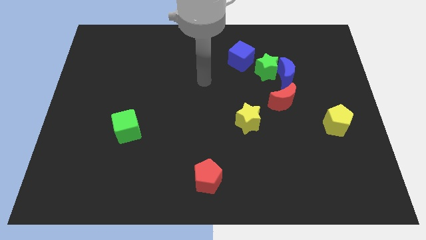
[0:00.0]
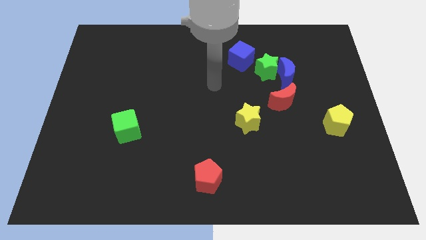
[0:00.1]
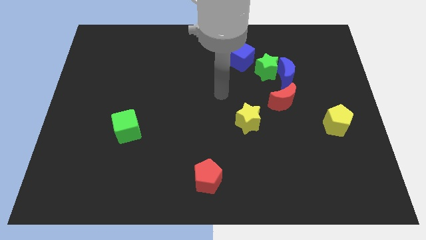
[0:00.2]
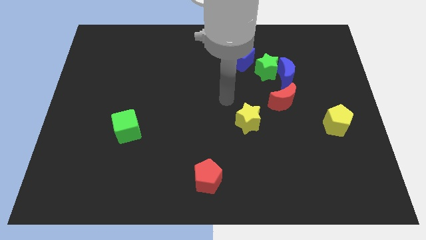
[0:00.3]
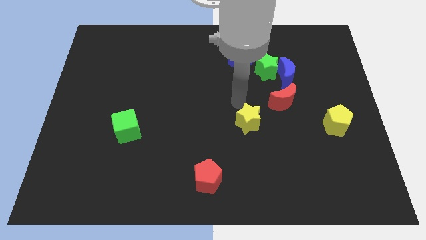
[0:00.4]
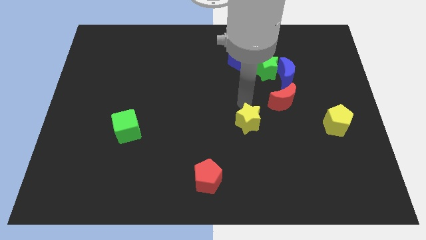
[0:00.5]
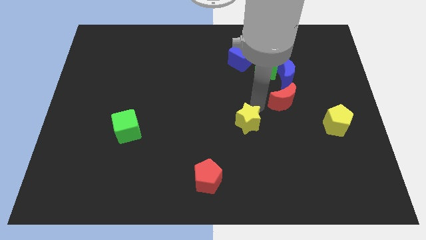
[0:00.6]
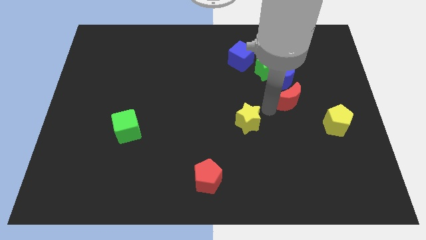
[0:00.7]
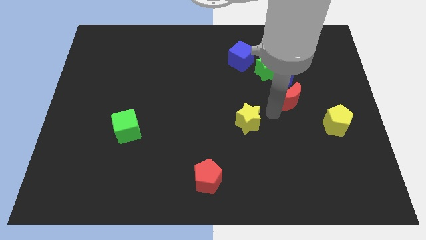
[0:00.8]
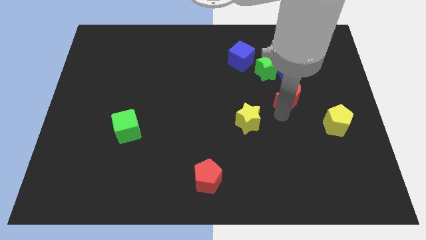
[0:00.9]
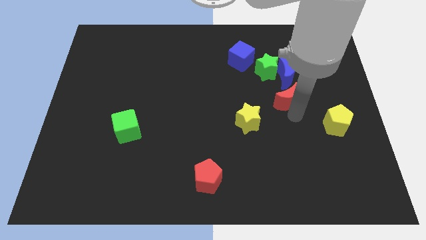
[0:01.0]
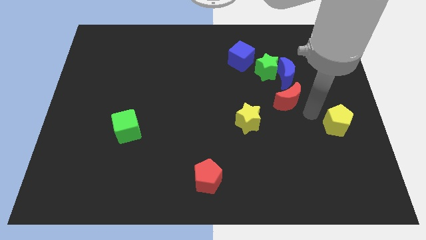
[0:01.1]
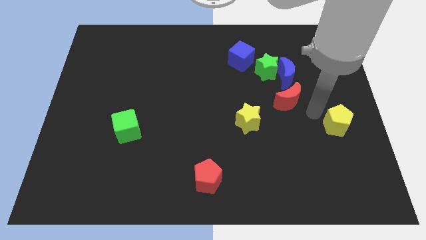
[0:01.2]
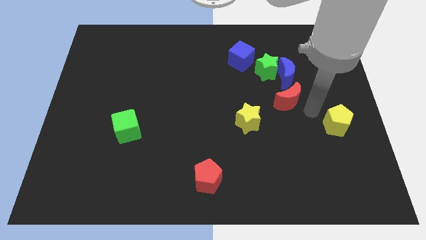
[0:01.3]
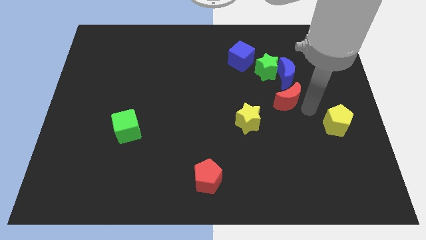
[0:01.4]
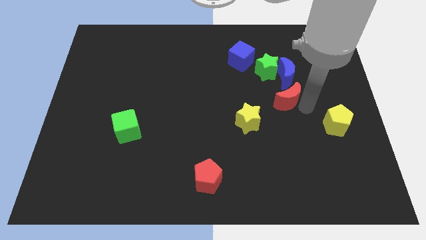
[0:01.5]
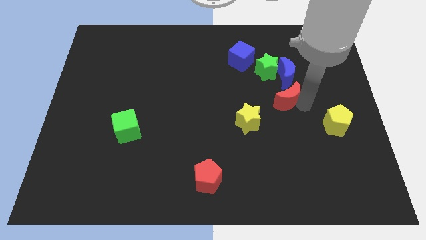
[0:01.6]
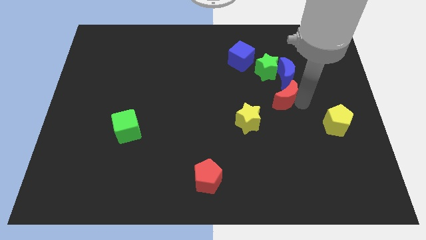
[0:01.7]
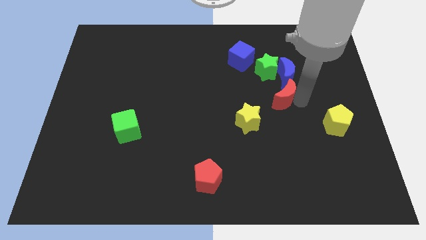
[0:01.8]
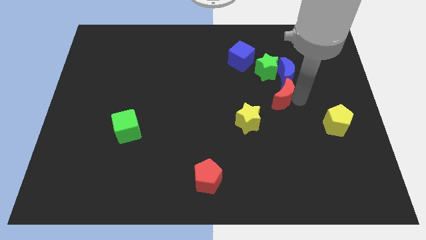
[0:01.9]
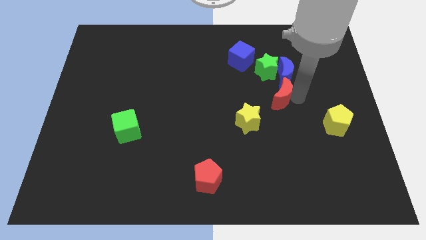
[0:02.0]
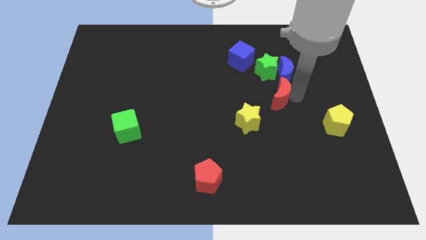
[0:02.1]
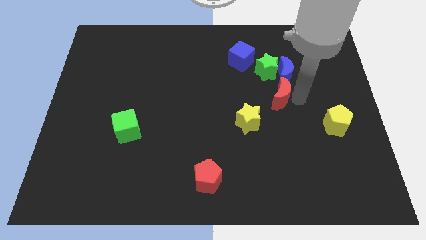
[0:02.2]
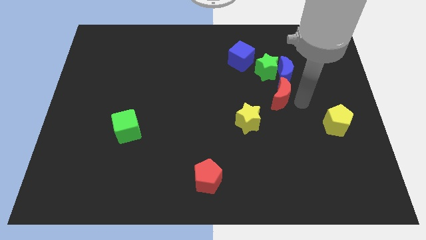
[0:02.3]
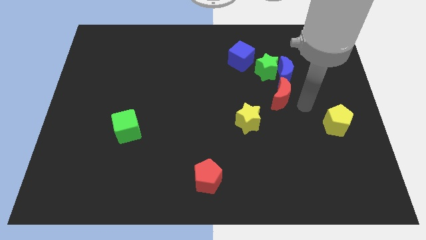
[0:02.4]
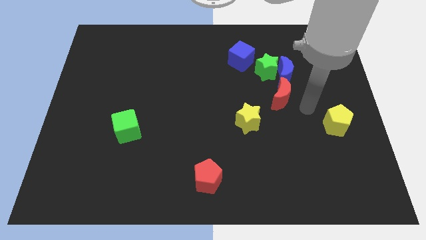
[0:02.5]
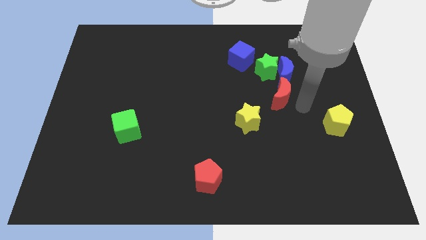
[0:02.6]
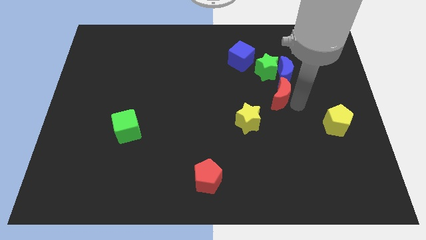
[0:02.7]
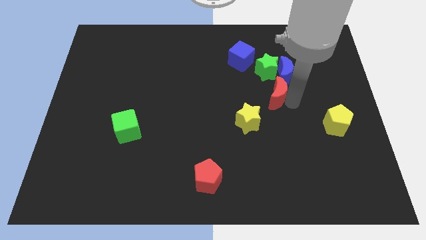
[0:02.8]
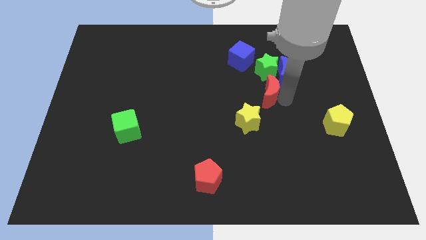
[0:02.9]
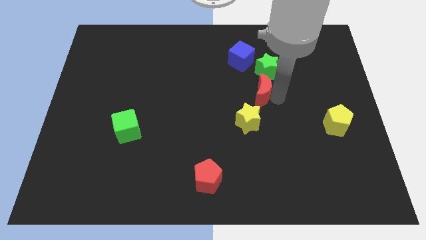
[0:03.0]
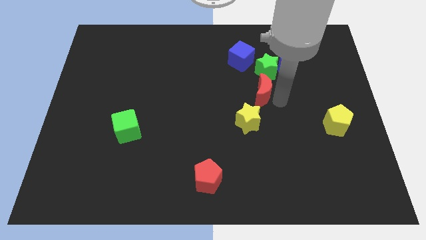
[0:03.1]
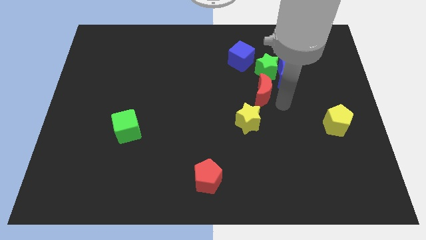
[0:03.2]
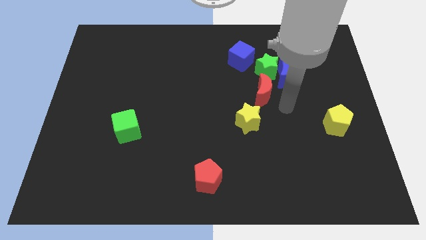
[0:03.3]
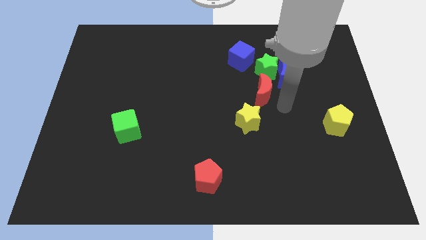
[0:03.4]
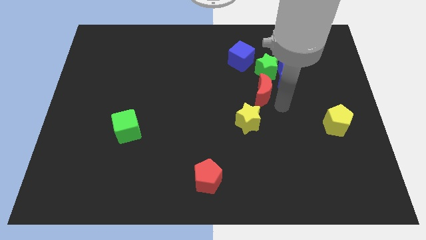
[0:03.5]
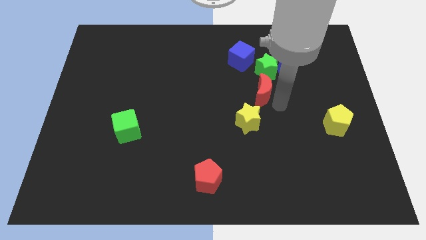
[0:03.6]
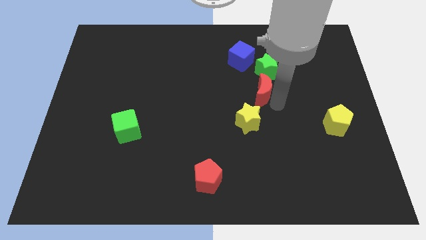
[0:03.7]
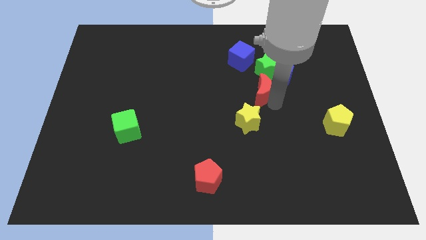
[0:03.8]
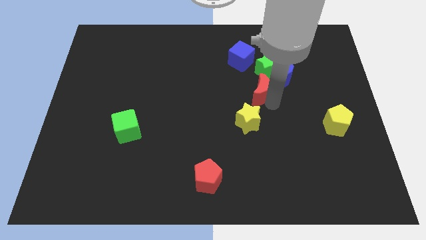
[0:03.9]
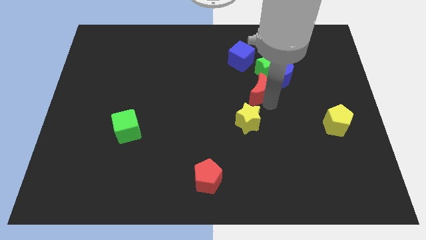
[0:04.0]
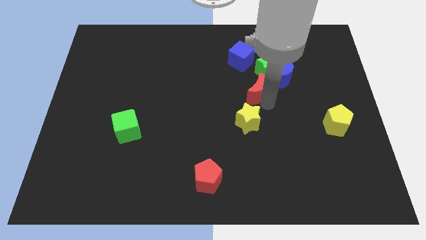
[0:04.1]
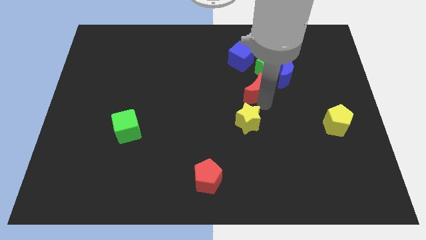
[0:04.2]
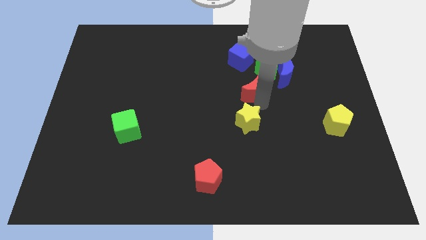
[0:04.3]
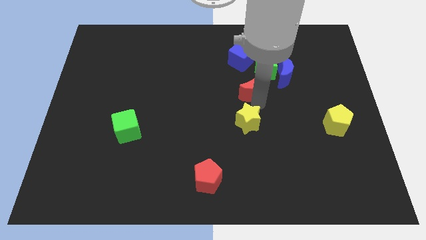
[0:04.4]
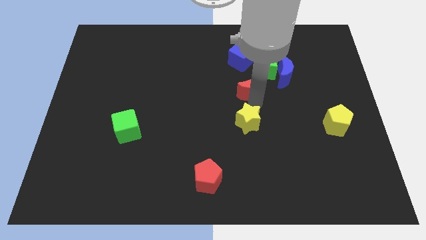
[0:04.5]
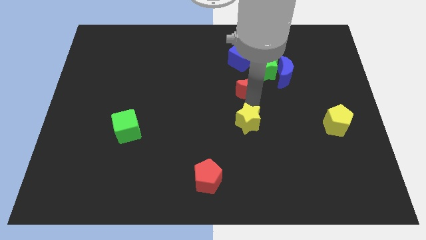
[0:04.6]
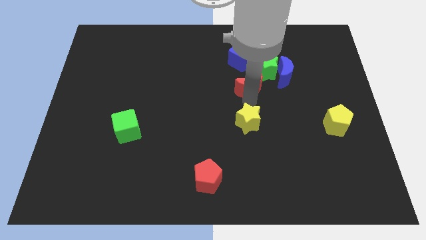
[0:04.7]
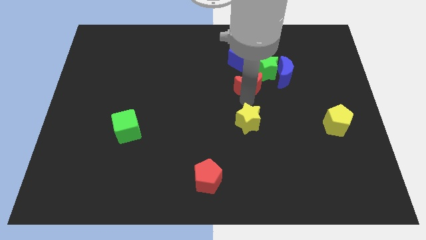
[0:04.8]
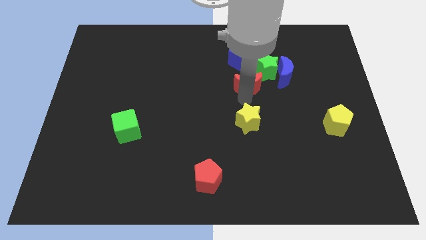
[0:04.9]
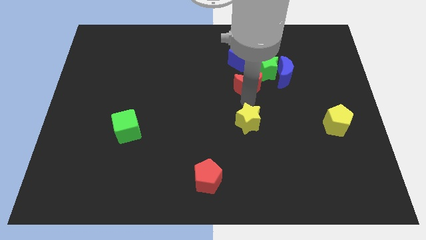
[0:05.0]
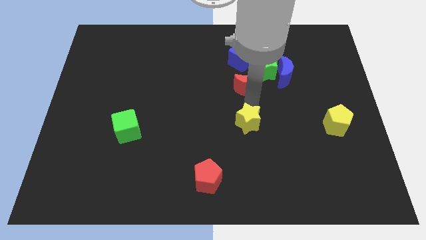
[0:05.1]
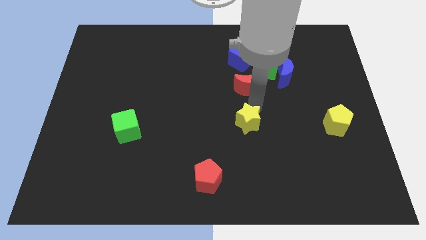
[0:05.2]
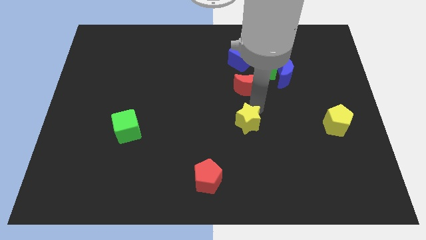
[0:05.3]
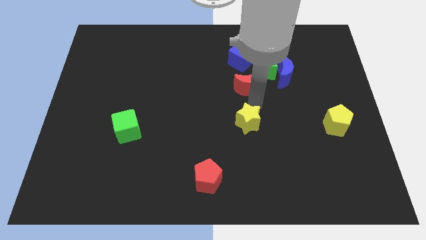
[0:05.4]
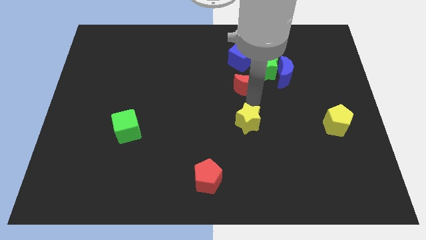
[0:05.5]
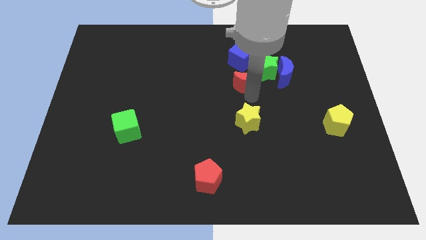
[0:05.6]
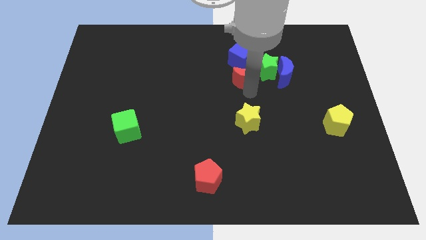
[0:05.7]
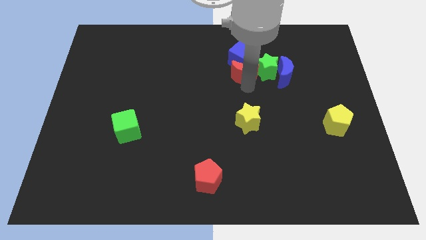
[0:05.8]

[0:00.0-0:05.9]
push the red moon close to the blue cube
